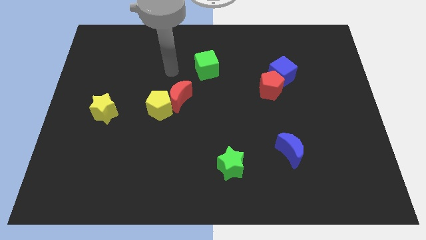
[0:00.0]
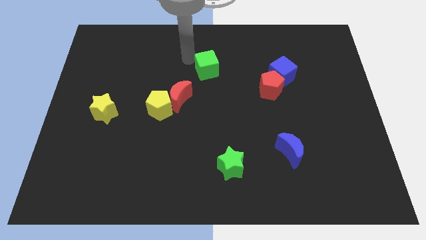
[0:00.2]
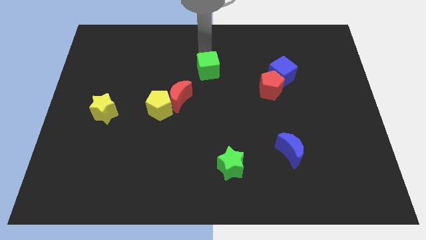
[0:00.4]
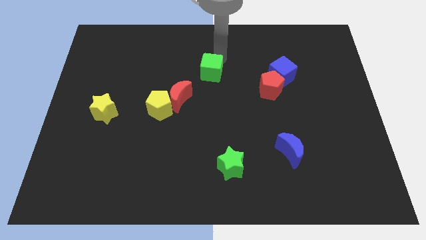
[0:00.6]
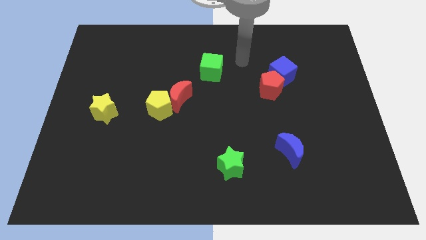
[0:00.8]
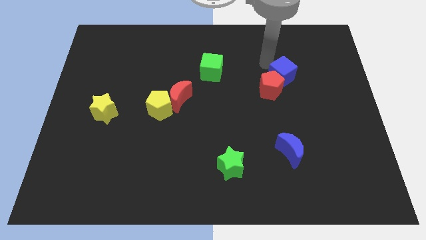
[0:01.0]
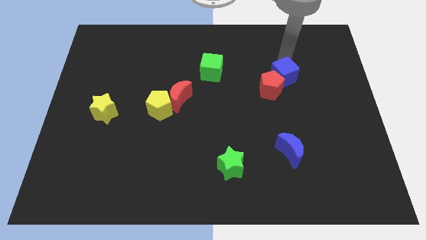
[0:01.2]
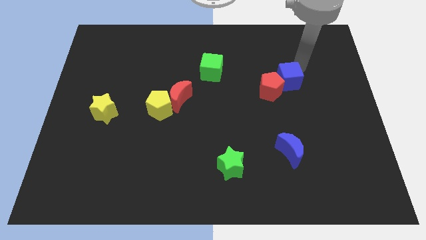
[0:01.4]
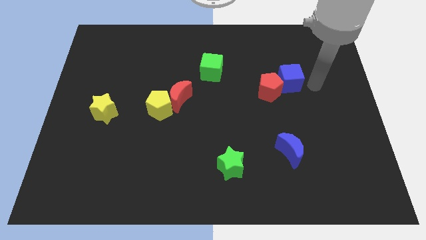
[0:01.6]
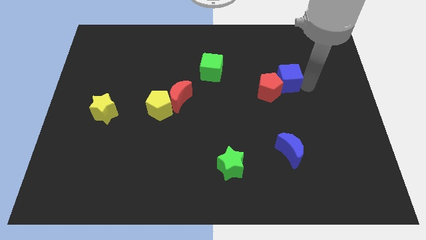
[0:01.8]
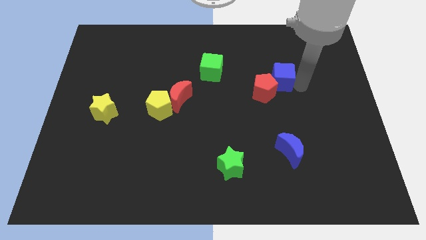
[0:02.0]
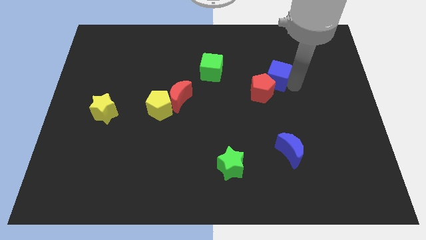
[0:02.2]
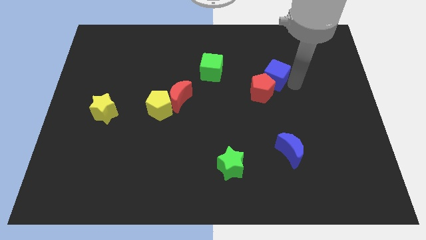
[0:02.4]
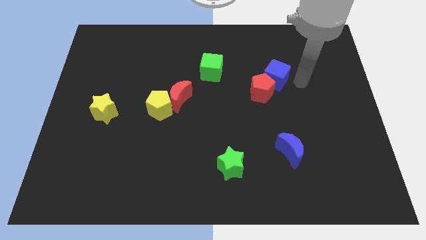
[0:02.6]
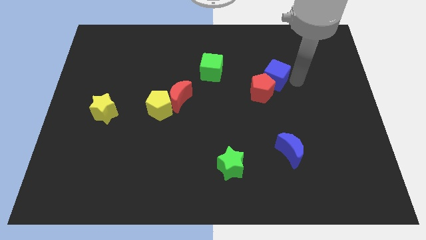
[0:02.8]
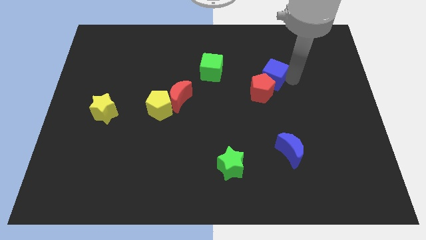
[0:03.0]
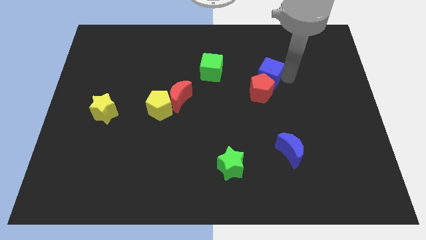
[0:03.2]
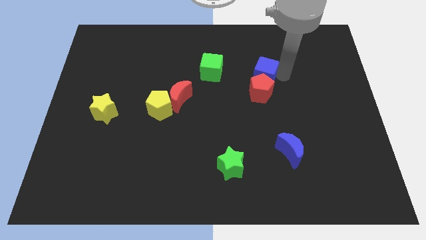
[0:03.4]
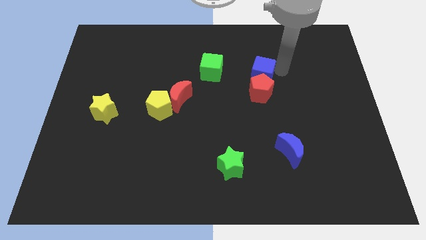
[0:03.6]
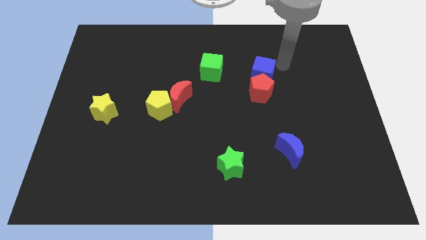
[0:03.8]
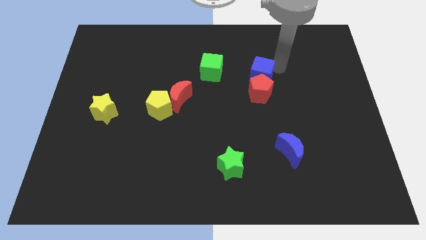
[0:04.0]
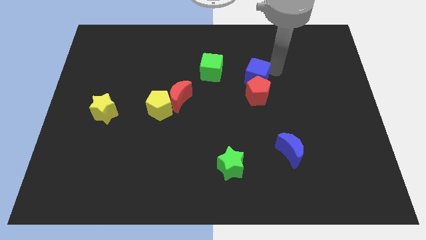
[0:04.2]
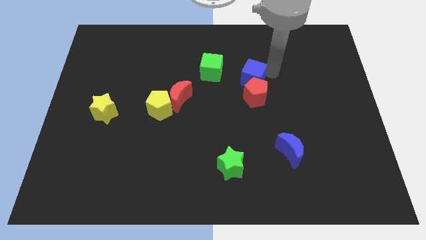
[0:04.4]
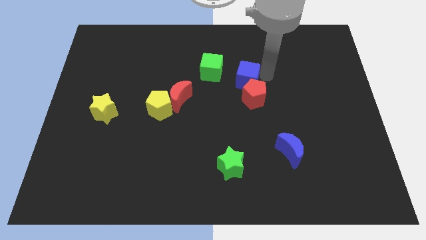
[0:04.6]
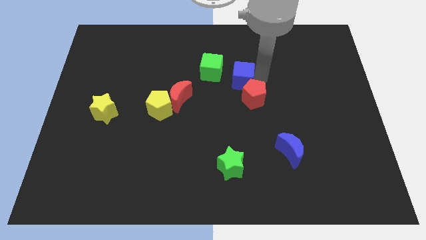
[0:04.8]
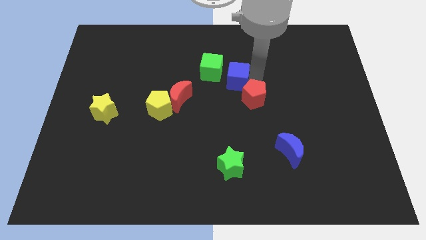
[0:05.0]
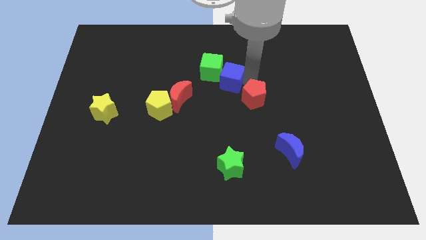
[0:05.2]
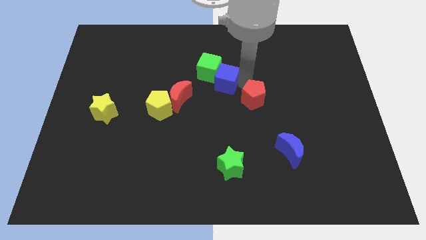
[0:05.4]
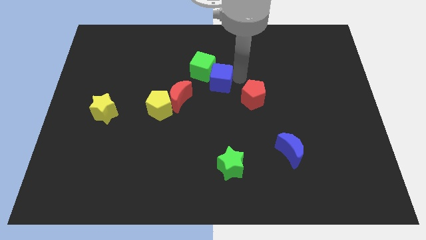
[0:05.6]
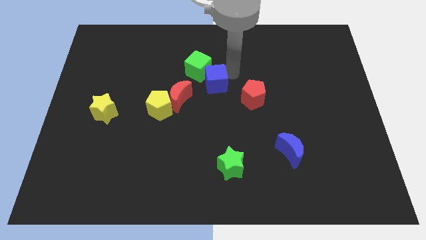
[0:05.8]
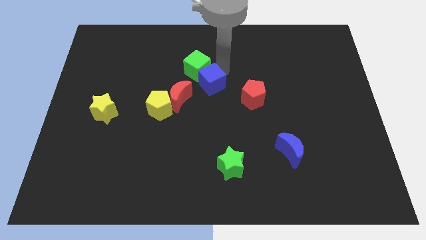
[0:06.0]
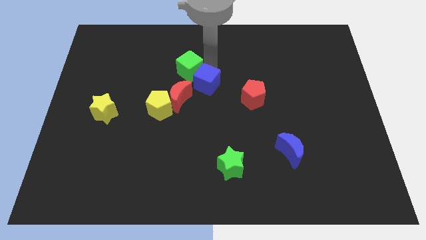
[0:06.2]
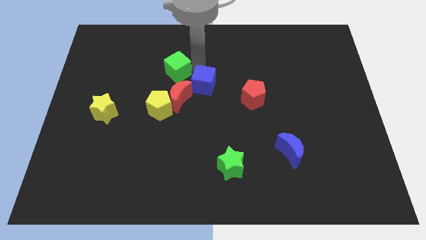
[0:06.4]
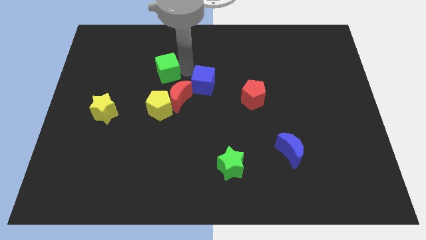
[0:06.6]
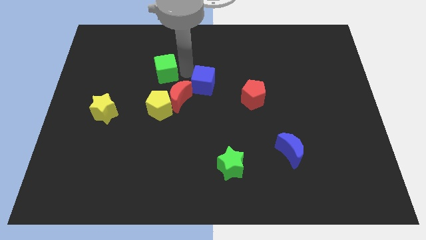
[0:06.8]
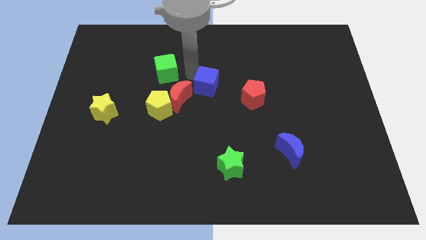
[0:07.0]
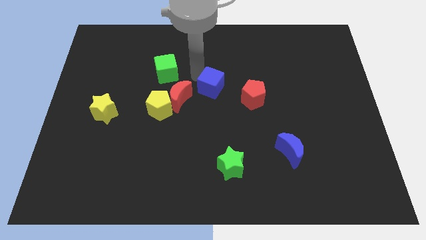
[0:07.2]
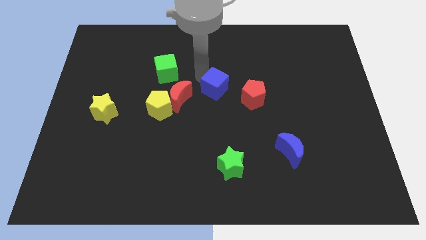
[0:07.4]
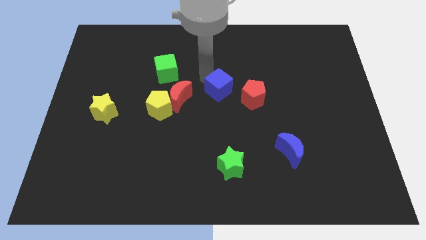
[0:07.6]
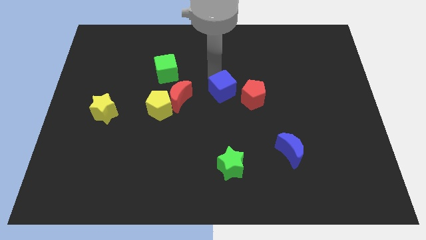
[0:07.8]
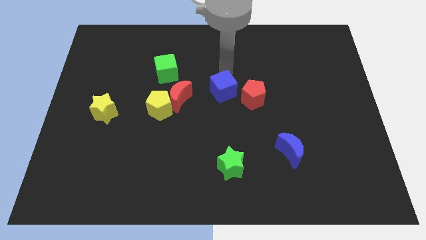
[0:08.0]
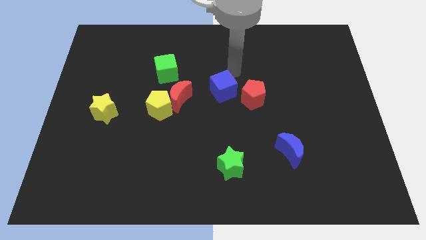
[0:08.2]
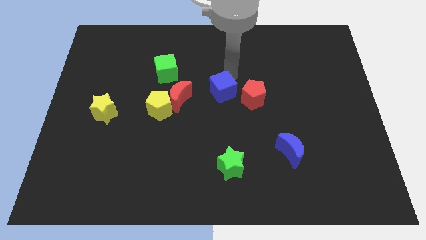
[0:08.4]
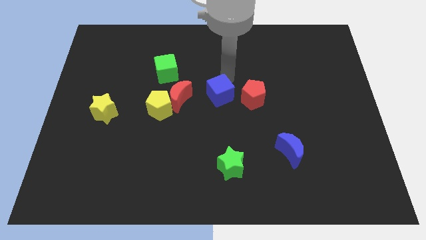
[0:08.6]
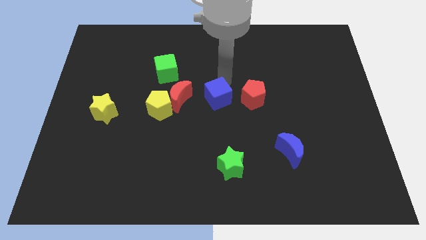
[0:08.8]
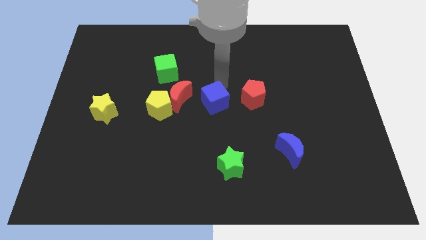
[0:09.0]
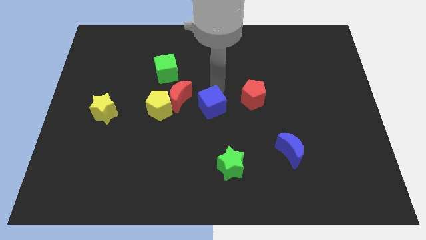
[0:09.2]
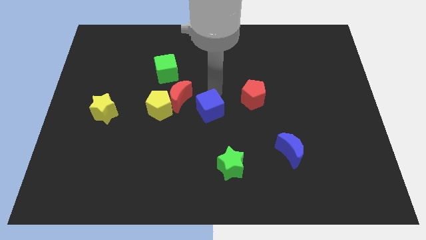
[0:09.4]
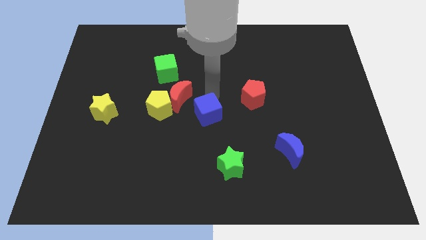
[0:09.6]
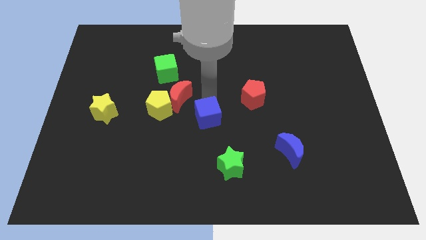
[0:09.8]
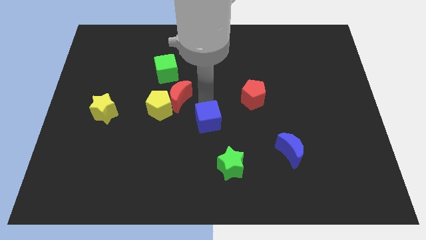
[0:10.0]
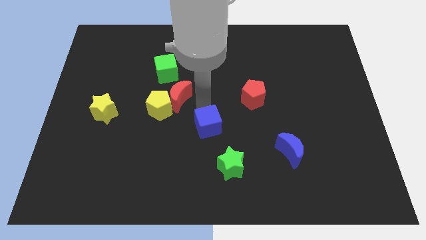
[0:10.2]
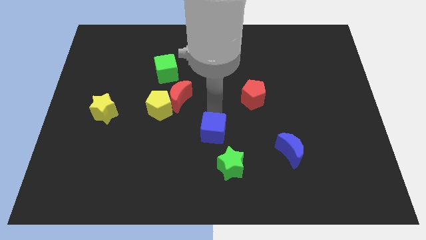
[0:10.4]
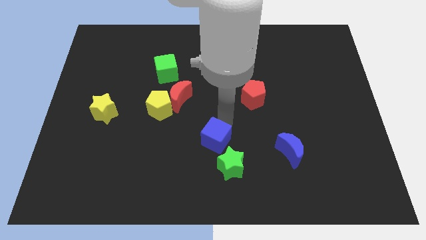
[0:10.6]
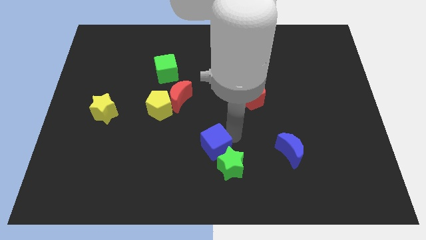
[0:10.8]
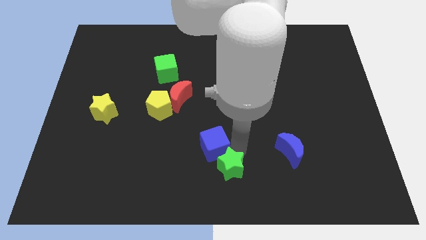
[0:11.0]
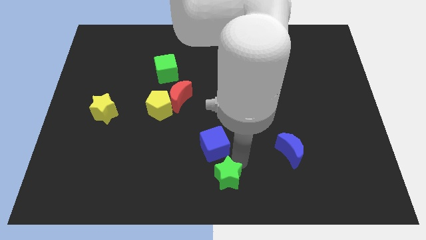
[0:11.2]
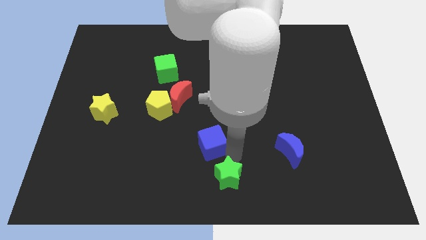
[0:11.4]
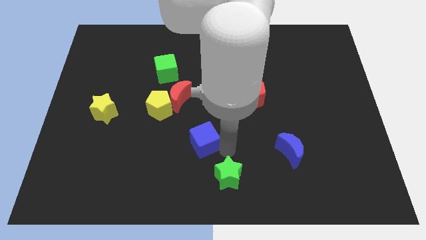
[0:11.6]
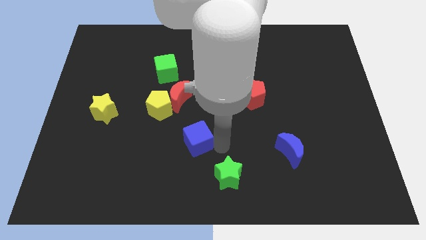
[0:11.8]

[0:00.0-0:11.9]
move the blue cube to the bottom right side of the yellow pentagon
